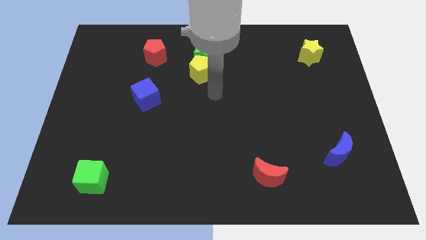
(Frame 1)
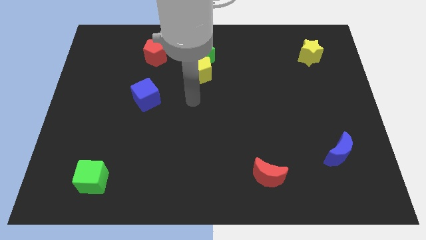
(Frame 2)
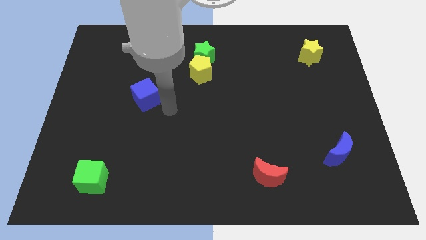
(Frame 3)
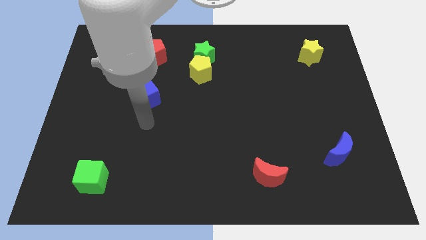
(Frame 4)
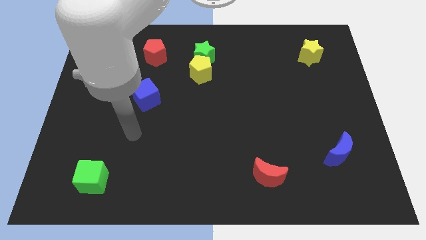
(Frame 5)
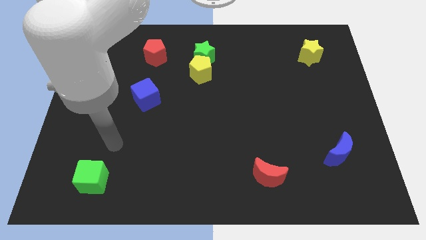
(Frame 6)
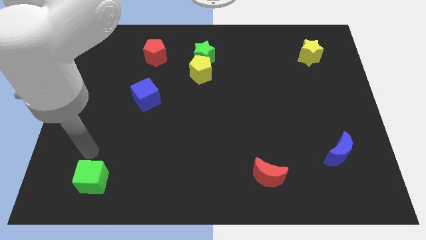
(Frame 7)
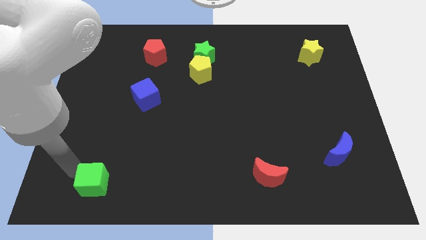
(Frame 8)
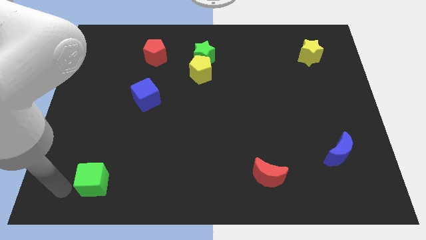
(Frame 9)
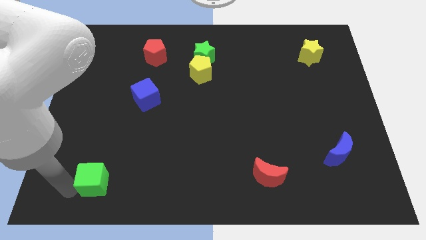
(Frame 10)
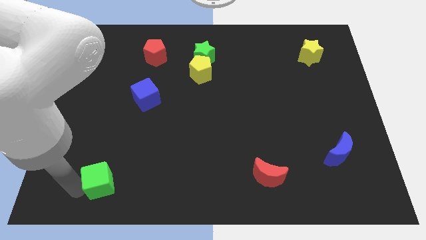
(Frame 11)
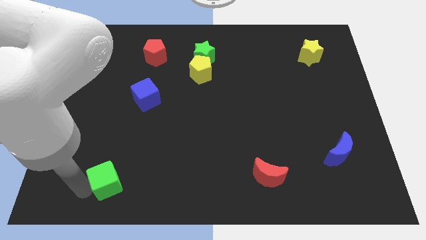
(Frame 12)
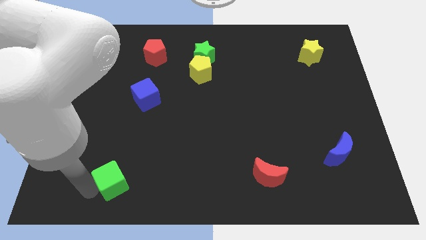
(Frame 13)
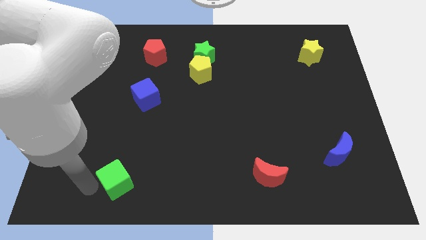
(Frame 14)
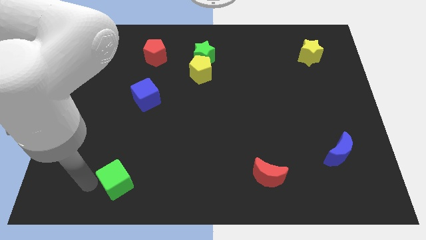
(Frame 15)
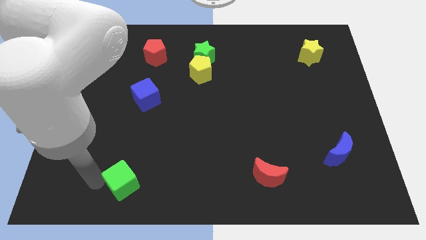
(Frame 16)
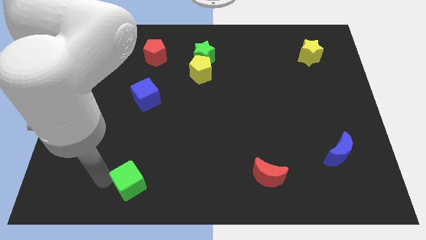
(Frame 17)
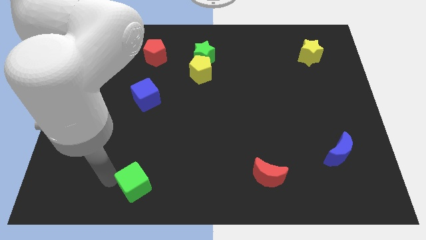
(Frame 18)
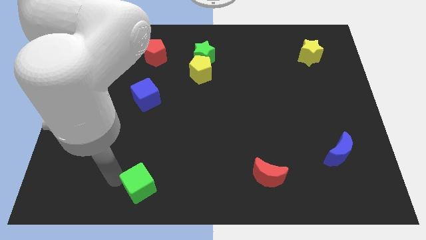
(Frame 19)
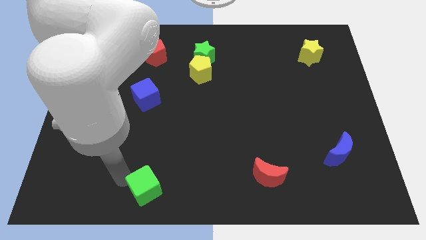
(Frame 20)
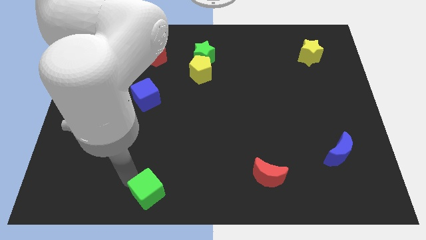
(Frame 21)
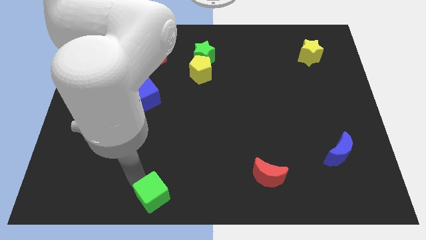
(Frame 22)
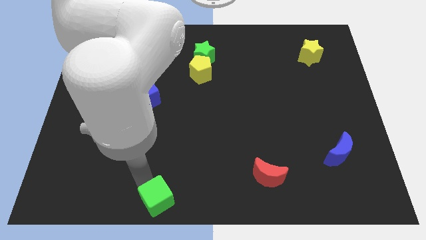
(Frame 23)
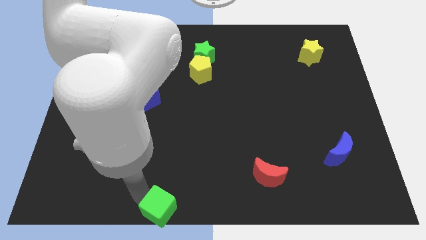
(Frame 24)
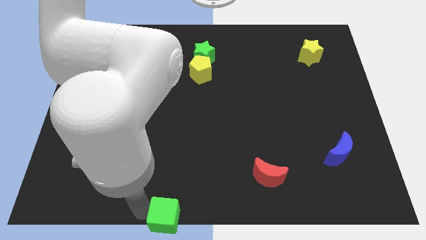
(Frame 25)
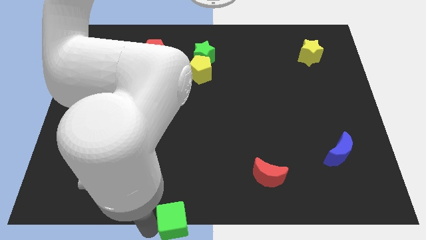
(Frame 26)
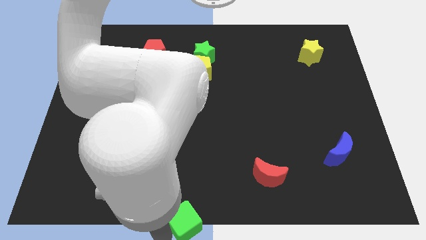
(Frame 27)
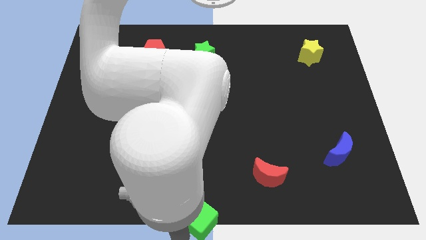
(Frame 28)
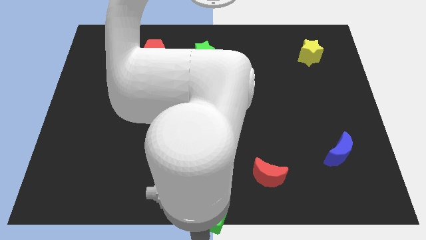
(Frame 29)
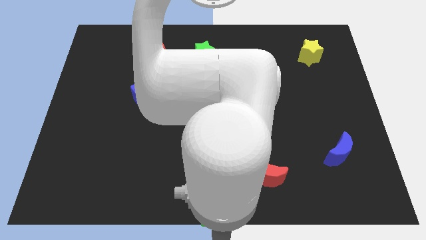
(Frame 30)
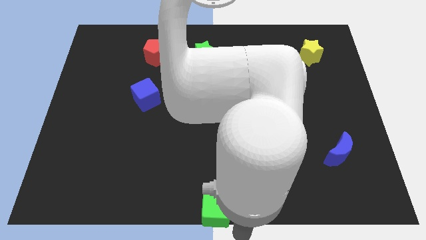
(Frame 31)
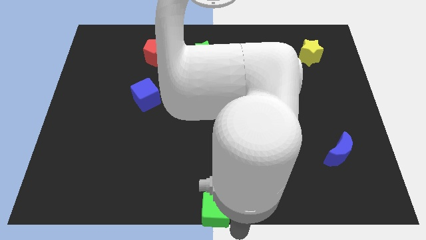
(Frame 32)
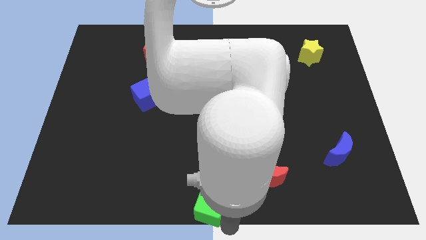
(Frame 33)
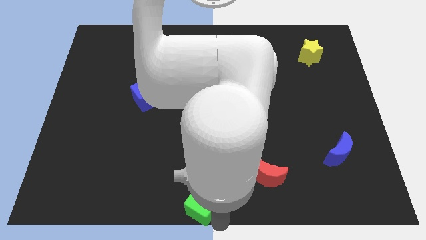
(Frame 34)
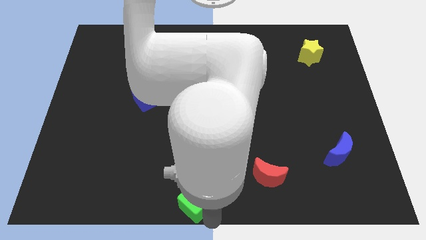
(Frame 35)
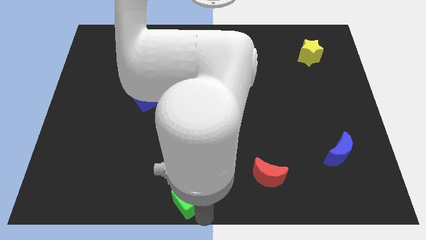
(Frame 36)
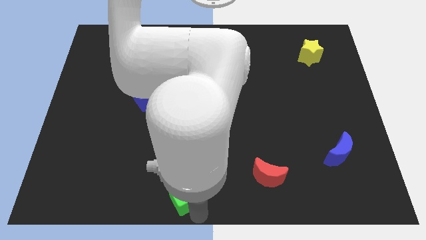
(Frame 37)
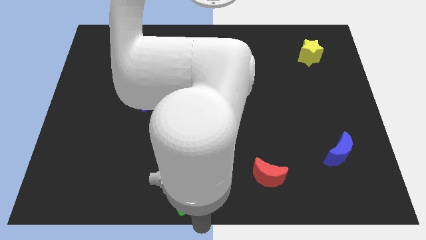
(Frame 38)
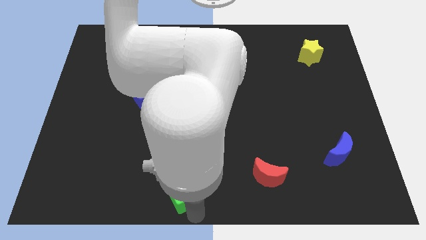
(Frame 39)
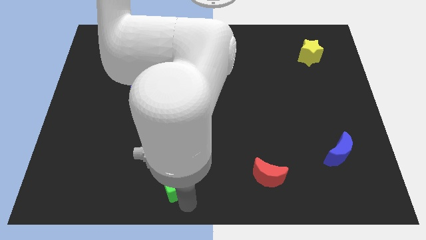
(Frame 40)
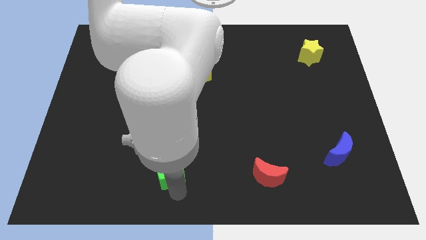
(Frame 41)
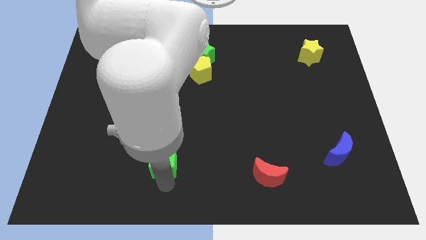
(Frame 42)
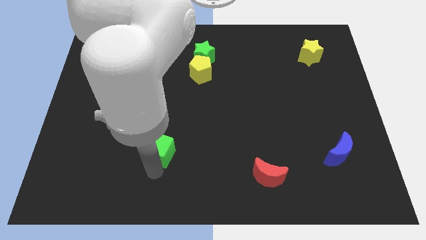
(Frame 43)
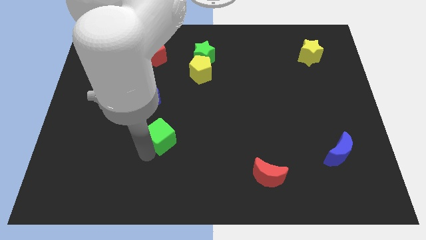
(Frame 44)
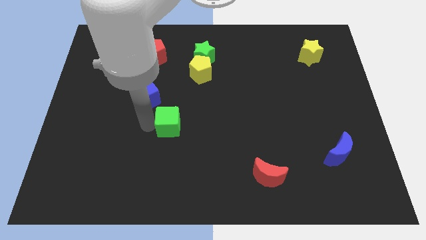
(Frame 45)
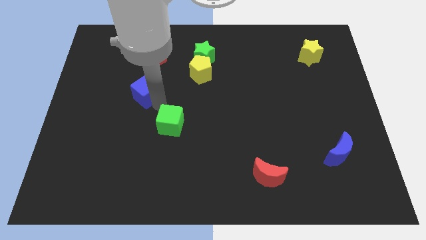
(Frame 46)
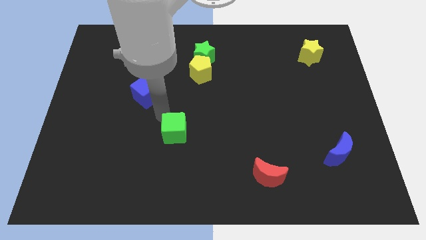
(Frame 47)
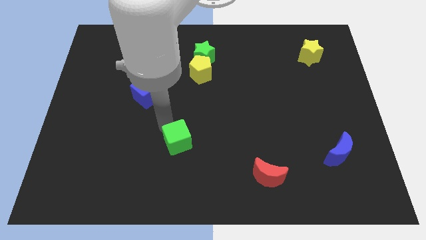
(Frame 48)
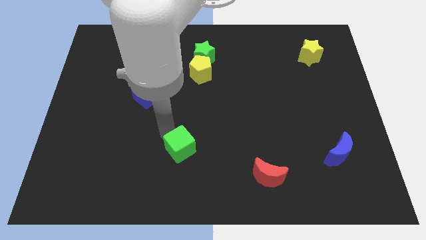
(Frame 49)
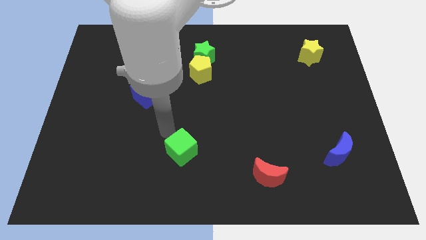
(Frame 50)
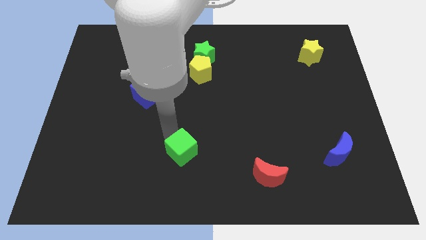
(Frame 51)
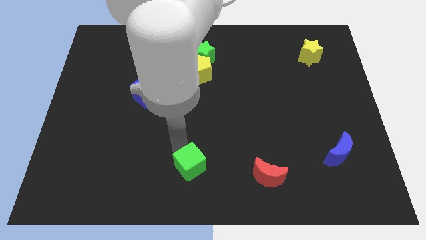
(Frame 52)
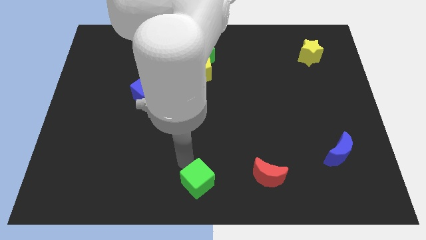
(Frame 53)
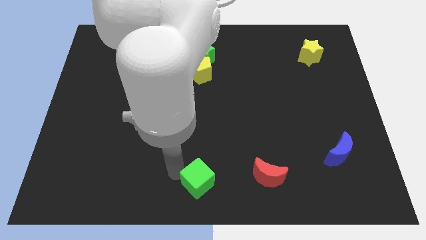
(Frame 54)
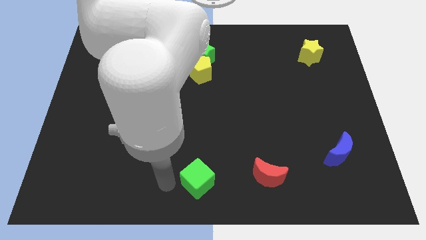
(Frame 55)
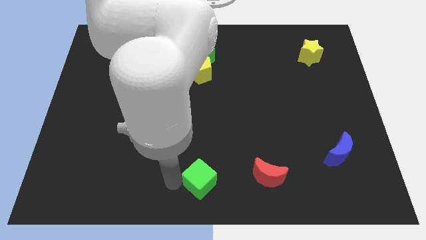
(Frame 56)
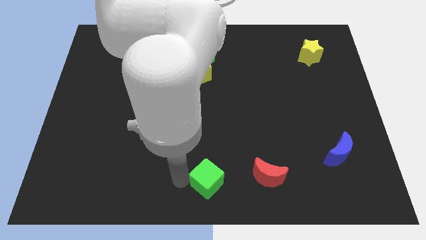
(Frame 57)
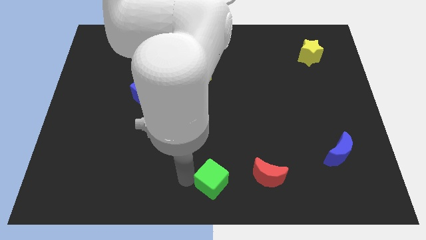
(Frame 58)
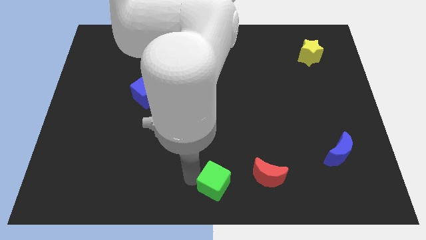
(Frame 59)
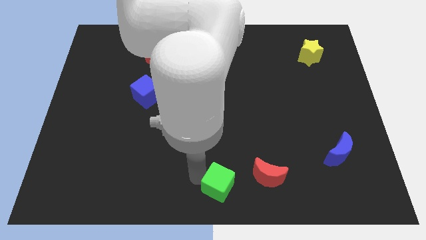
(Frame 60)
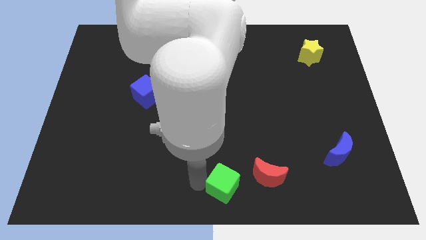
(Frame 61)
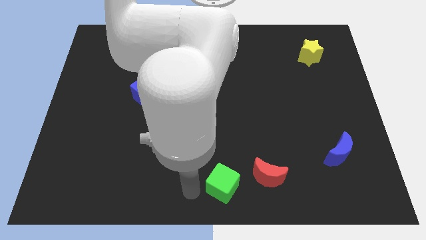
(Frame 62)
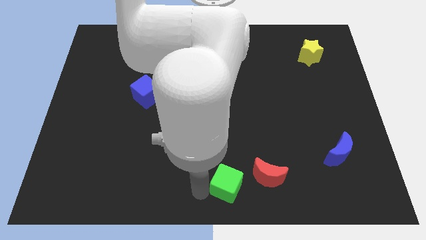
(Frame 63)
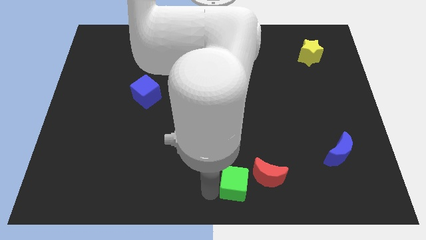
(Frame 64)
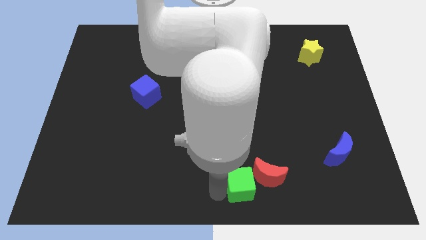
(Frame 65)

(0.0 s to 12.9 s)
put the green cube towards the red moon

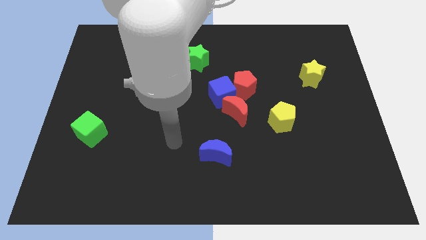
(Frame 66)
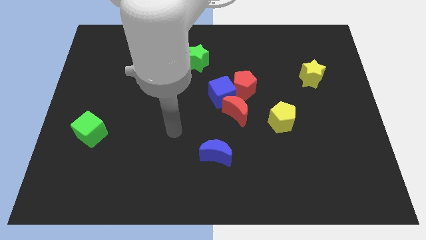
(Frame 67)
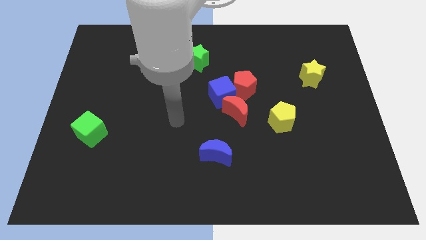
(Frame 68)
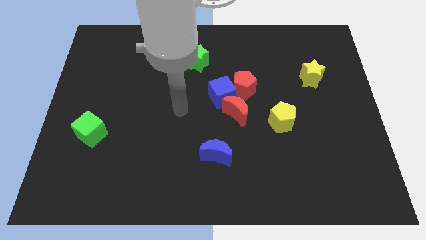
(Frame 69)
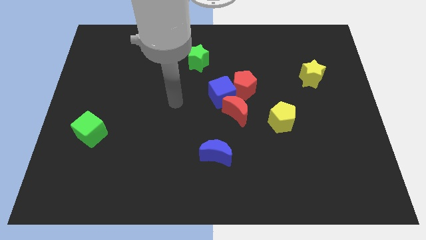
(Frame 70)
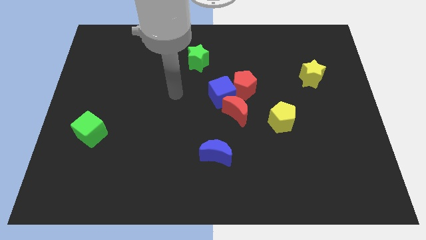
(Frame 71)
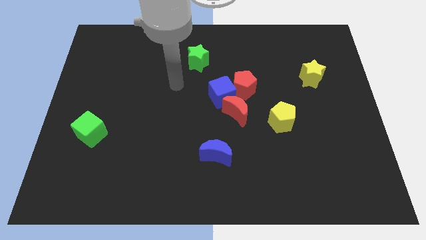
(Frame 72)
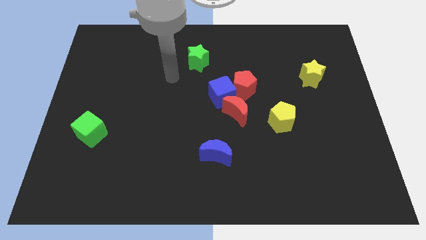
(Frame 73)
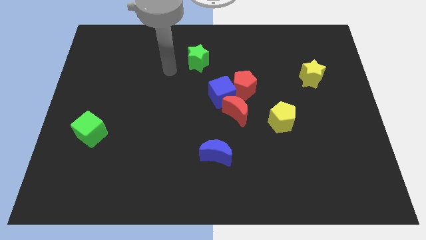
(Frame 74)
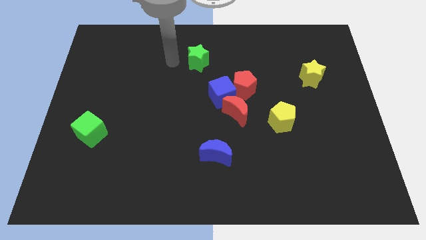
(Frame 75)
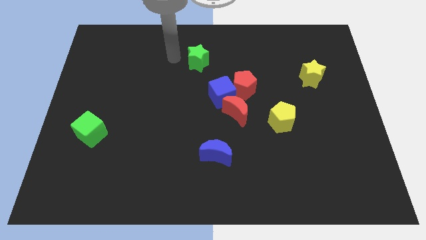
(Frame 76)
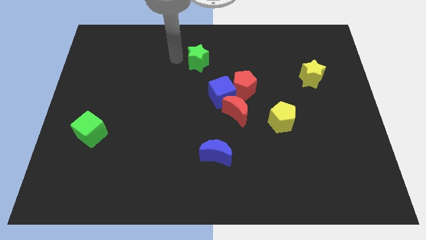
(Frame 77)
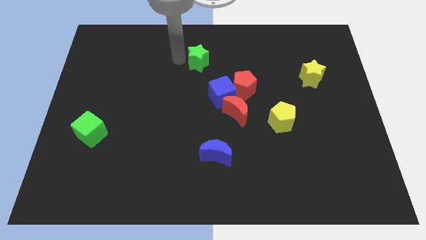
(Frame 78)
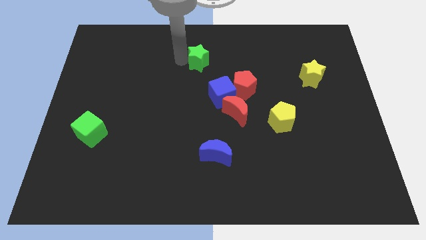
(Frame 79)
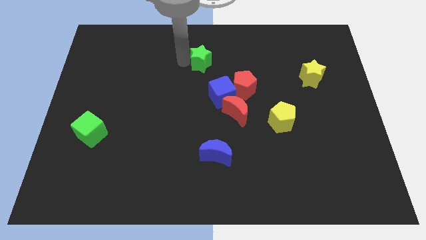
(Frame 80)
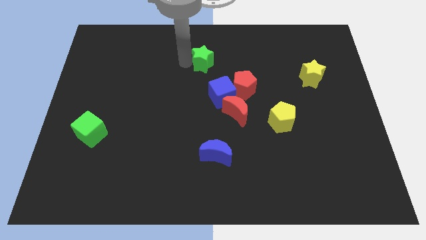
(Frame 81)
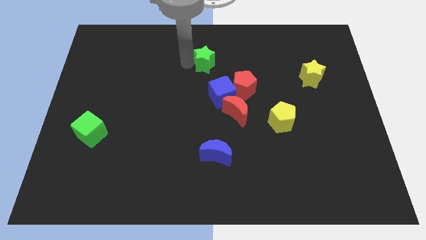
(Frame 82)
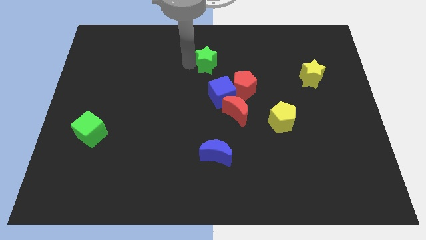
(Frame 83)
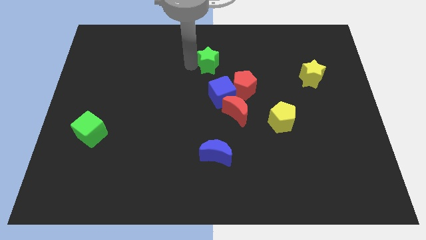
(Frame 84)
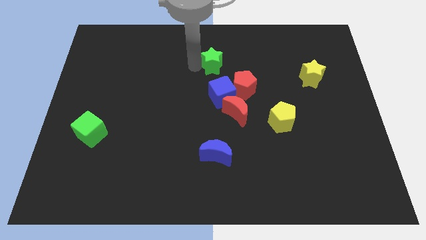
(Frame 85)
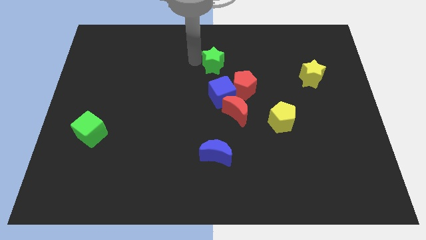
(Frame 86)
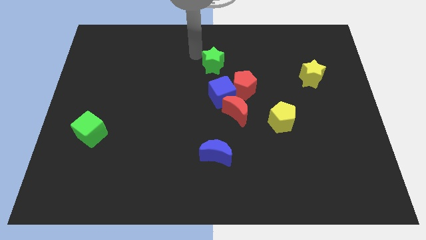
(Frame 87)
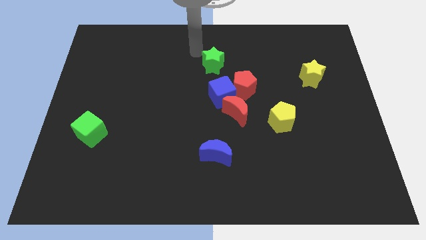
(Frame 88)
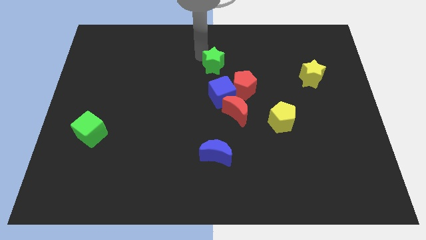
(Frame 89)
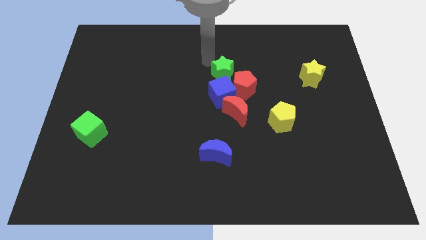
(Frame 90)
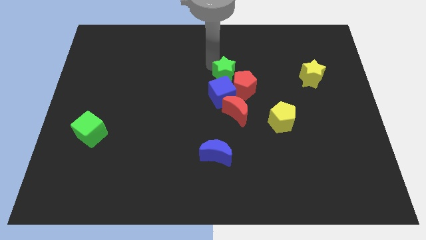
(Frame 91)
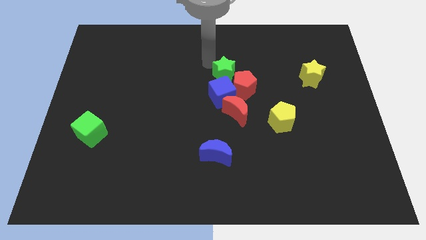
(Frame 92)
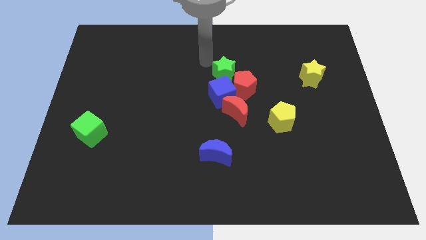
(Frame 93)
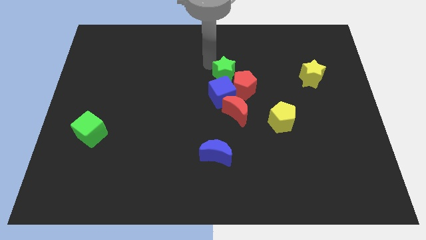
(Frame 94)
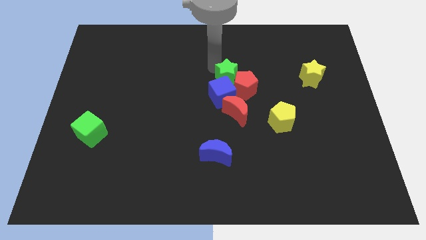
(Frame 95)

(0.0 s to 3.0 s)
slide the green star to the red pentagon
